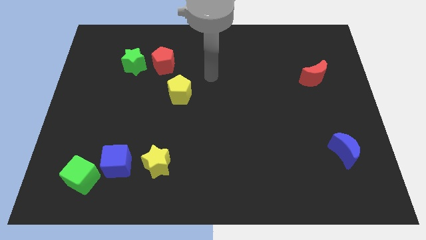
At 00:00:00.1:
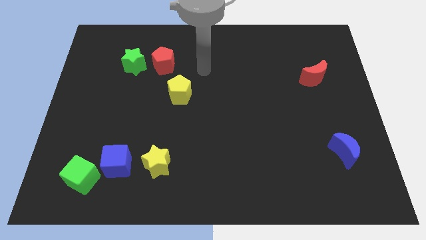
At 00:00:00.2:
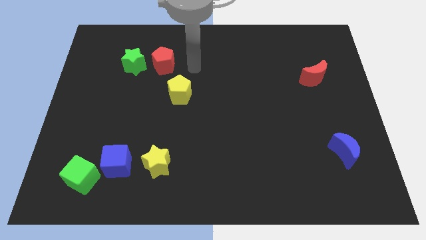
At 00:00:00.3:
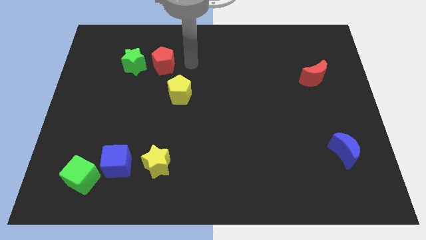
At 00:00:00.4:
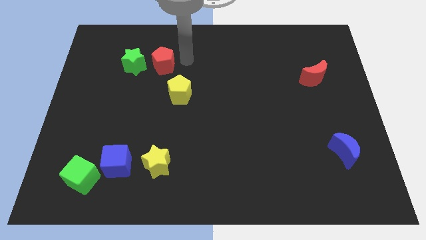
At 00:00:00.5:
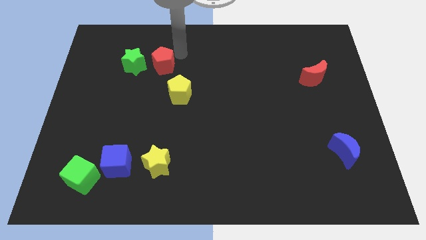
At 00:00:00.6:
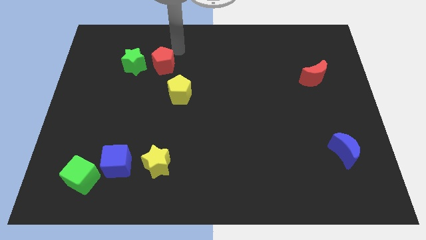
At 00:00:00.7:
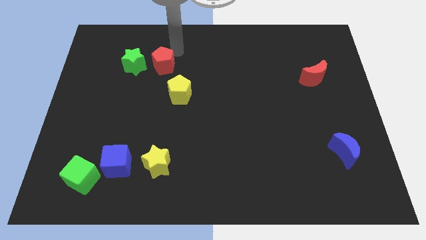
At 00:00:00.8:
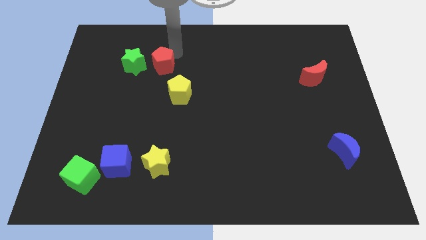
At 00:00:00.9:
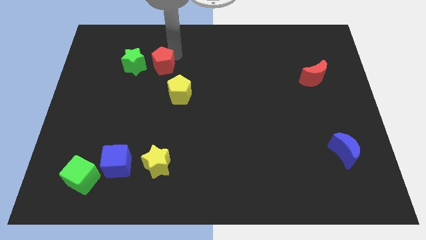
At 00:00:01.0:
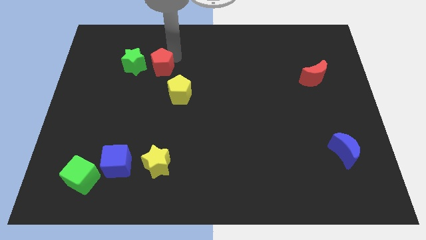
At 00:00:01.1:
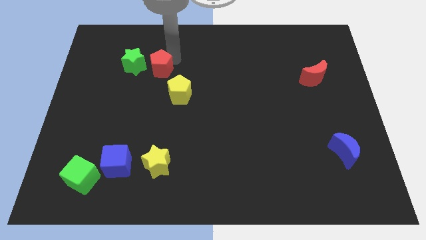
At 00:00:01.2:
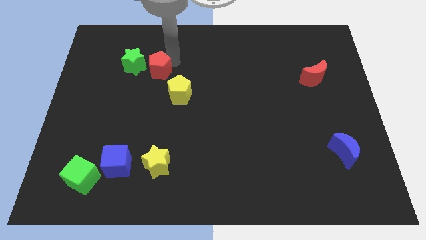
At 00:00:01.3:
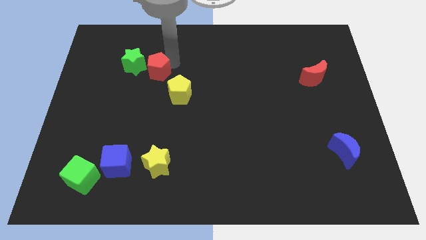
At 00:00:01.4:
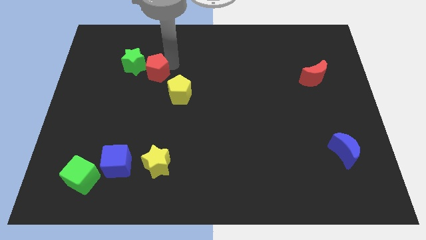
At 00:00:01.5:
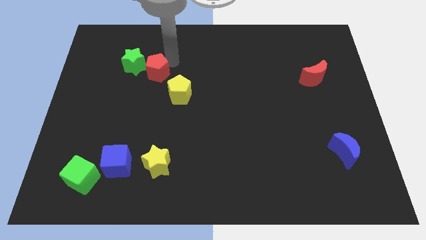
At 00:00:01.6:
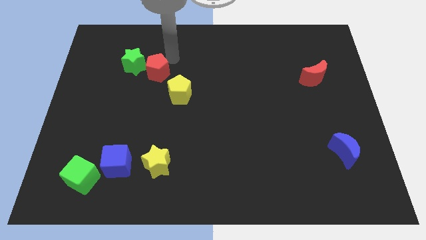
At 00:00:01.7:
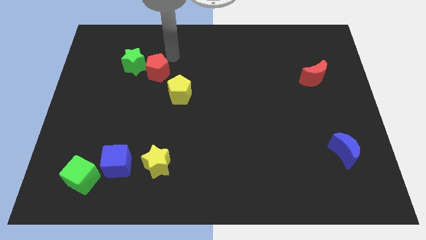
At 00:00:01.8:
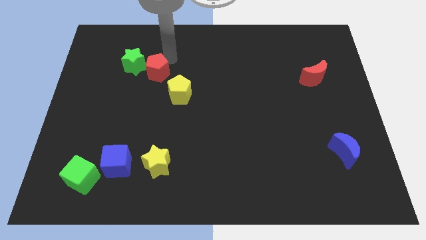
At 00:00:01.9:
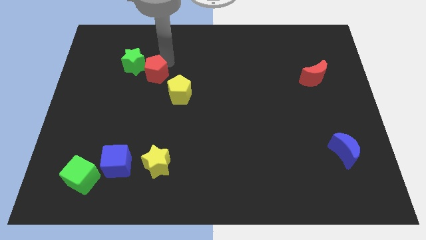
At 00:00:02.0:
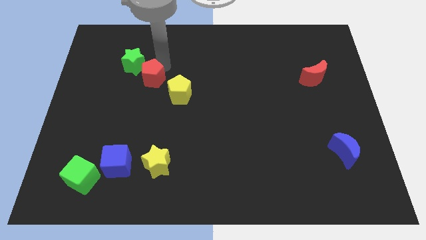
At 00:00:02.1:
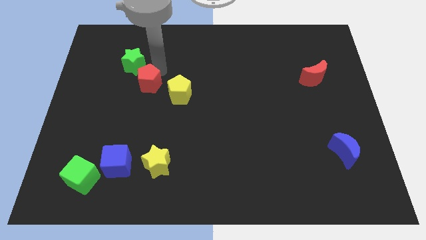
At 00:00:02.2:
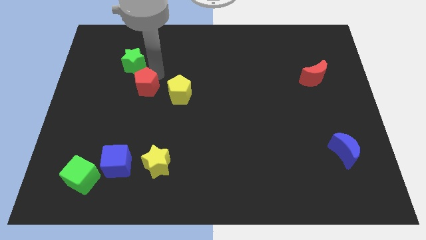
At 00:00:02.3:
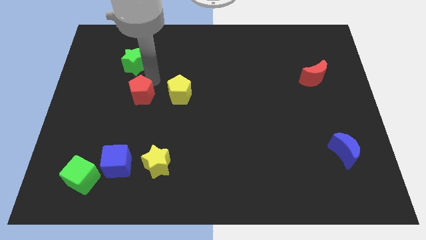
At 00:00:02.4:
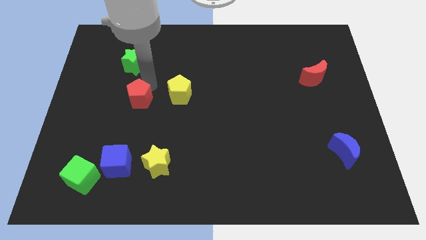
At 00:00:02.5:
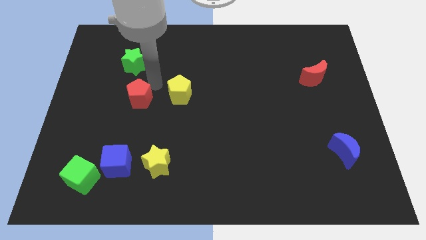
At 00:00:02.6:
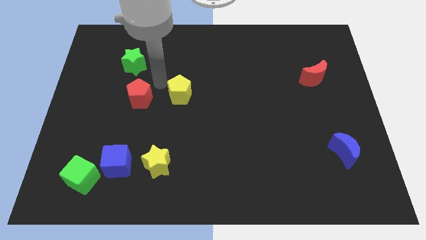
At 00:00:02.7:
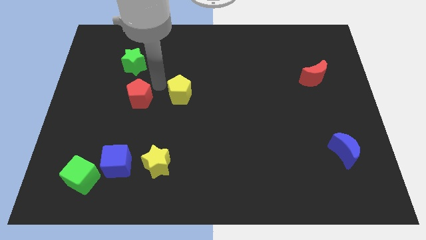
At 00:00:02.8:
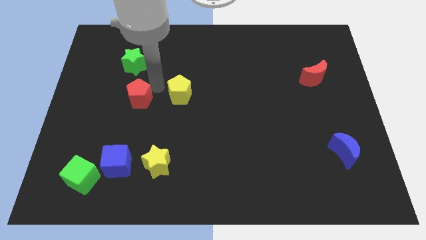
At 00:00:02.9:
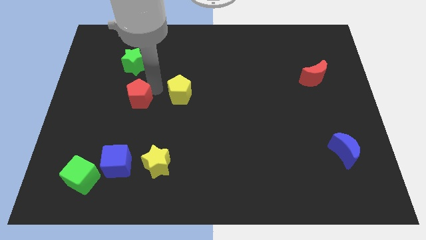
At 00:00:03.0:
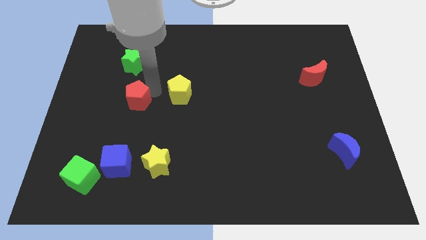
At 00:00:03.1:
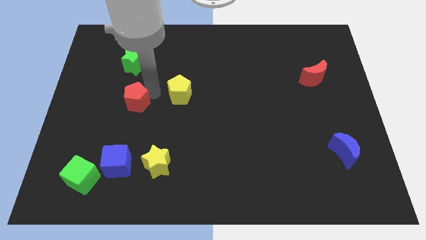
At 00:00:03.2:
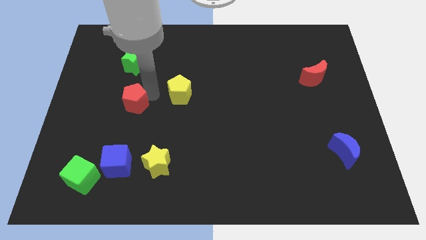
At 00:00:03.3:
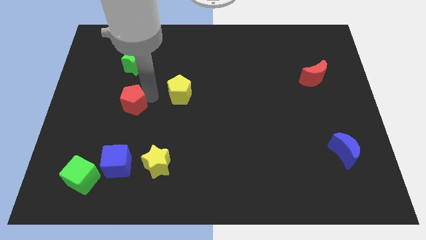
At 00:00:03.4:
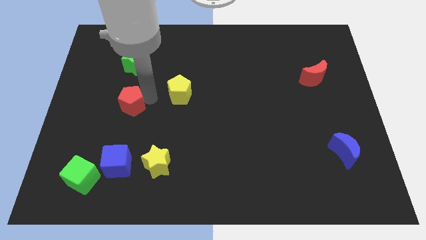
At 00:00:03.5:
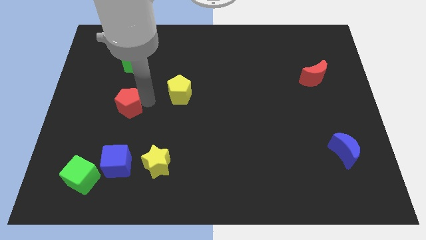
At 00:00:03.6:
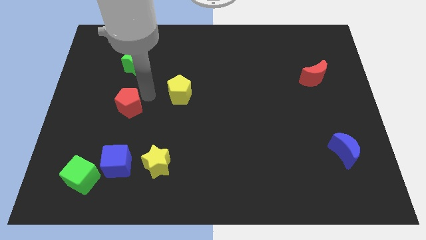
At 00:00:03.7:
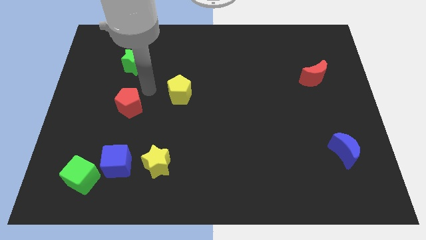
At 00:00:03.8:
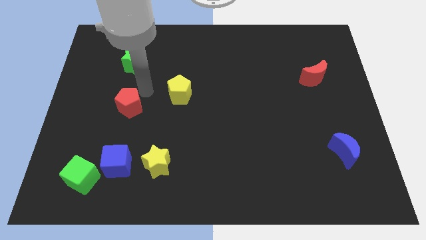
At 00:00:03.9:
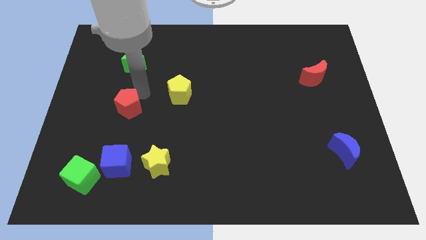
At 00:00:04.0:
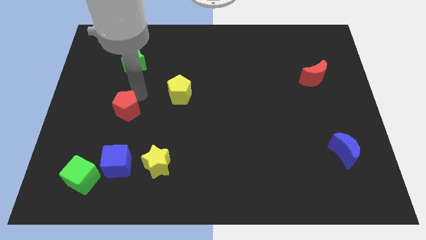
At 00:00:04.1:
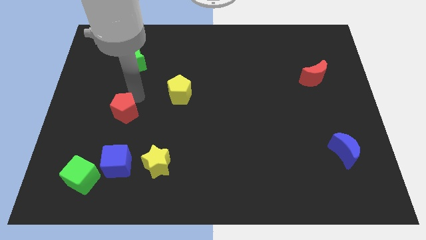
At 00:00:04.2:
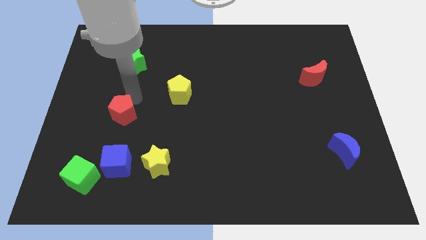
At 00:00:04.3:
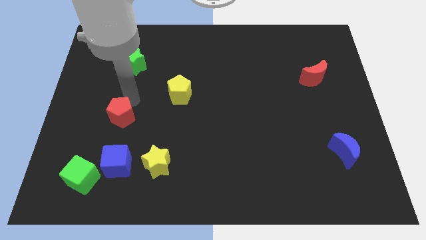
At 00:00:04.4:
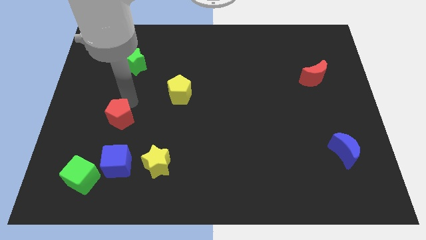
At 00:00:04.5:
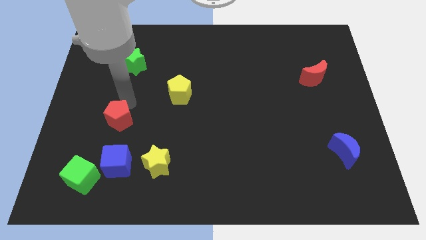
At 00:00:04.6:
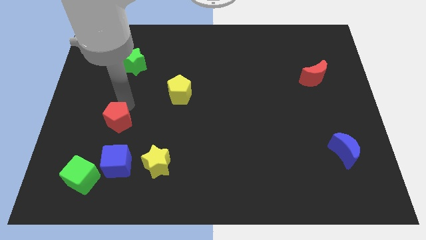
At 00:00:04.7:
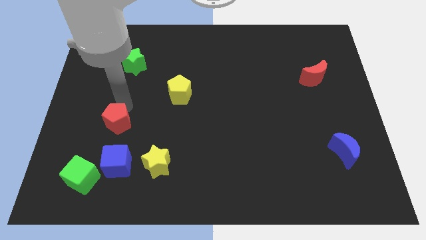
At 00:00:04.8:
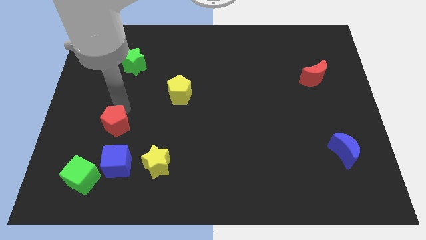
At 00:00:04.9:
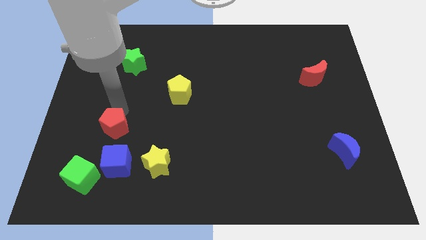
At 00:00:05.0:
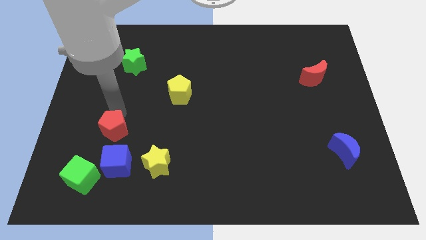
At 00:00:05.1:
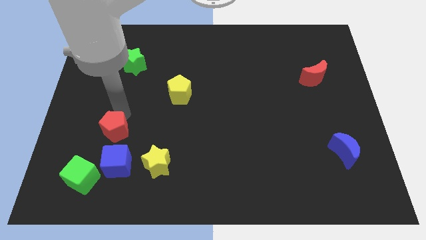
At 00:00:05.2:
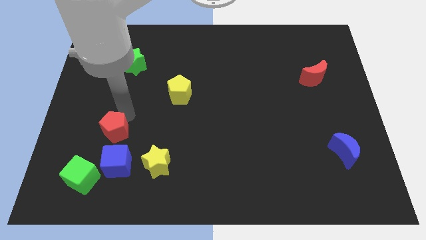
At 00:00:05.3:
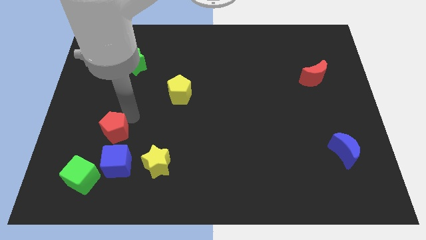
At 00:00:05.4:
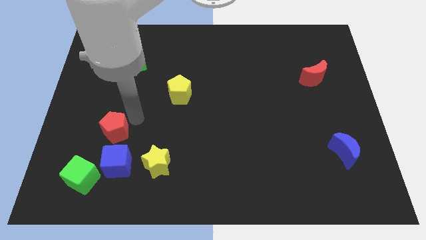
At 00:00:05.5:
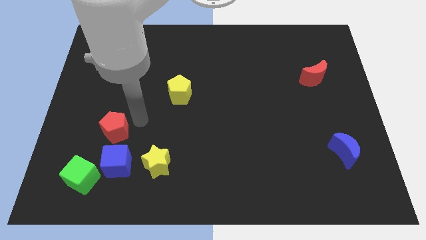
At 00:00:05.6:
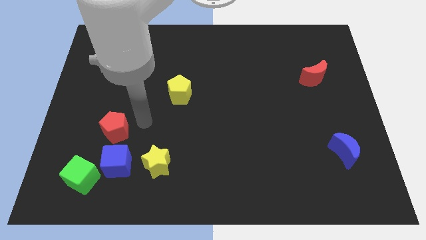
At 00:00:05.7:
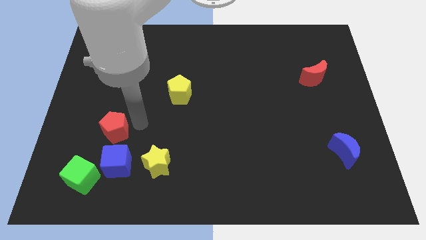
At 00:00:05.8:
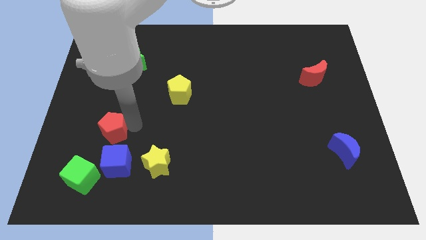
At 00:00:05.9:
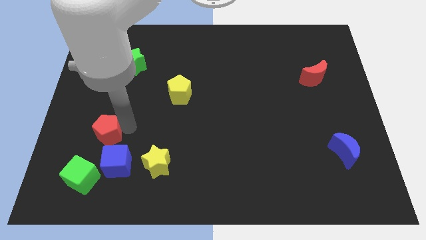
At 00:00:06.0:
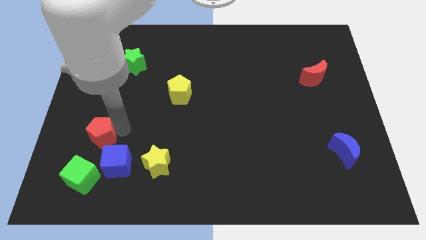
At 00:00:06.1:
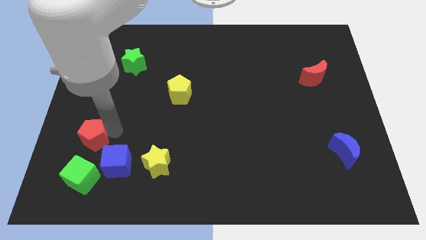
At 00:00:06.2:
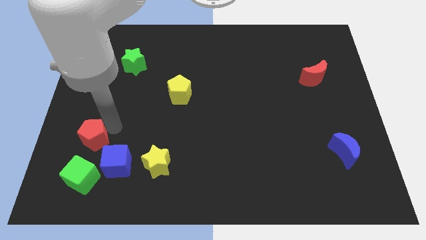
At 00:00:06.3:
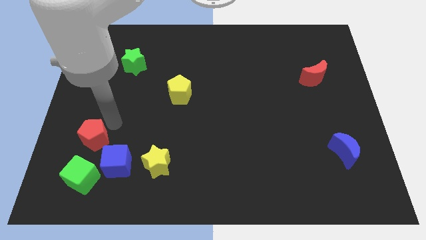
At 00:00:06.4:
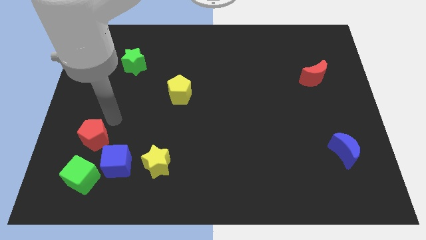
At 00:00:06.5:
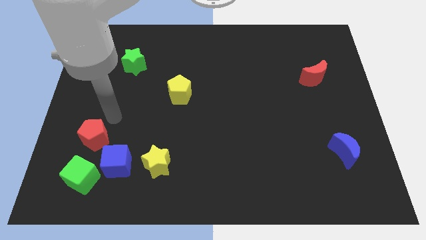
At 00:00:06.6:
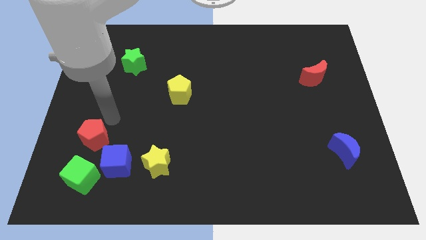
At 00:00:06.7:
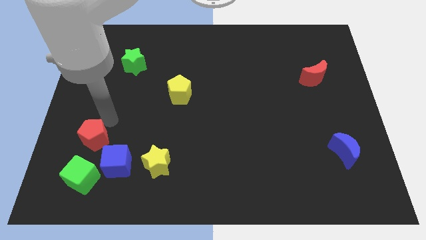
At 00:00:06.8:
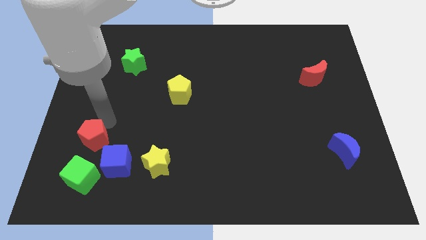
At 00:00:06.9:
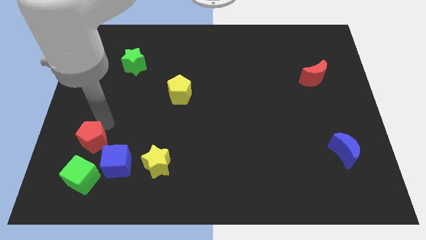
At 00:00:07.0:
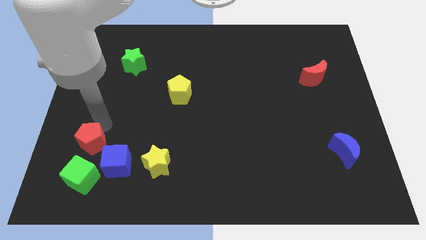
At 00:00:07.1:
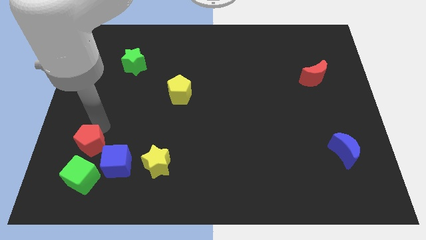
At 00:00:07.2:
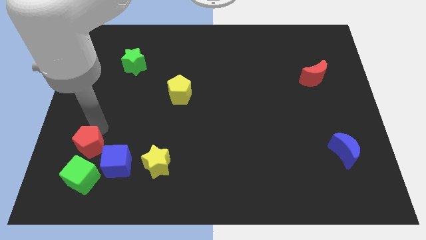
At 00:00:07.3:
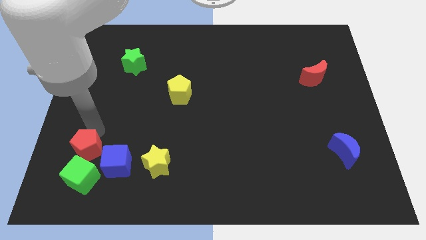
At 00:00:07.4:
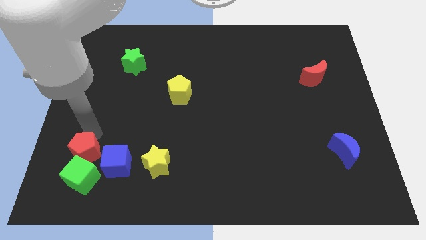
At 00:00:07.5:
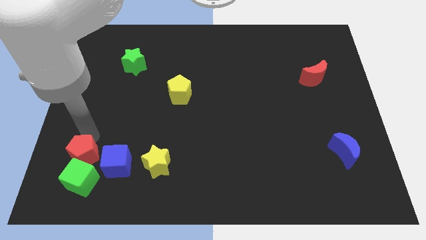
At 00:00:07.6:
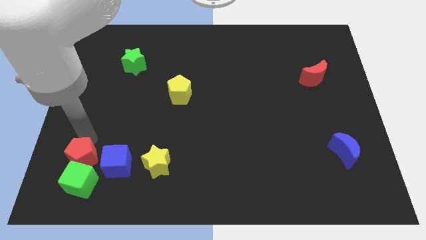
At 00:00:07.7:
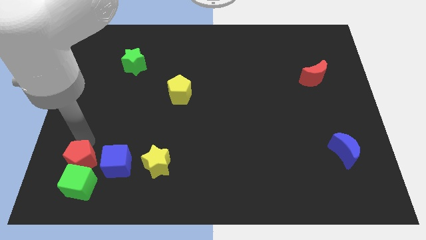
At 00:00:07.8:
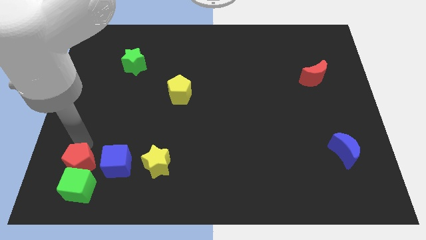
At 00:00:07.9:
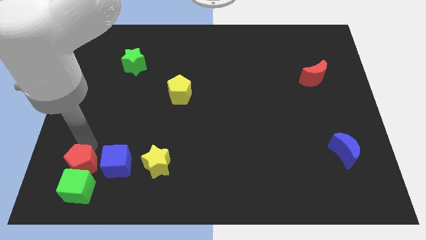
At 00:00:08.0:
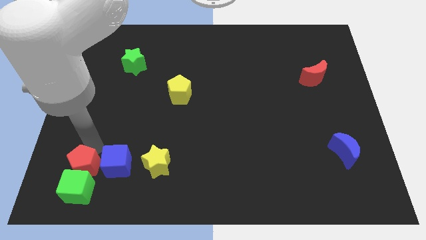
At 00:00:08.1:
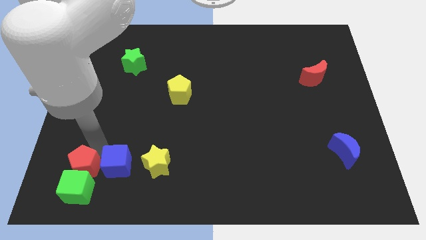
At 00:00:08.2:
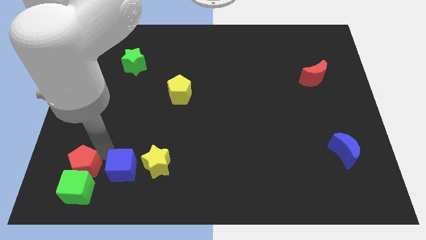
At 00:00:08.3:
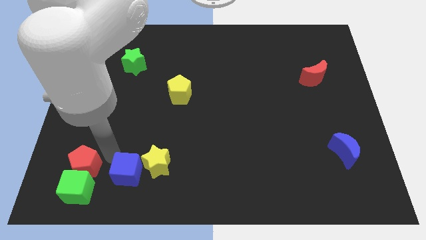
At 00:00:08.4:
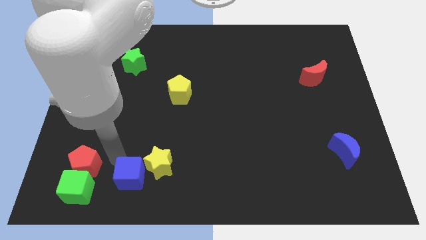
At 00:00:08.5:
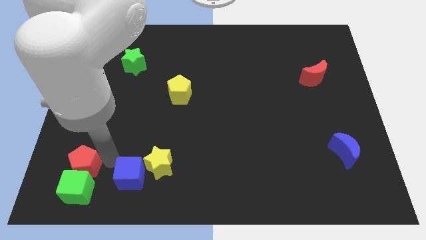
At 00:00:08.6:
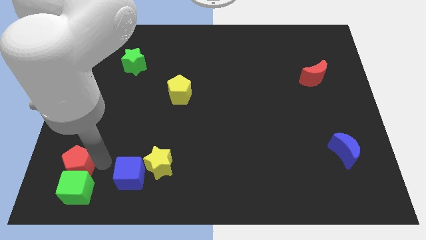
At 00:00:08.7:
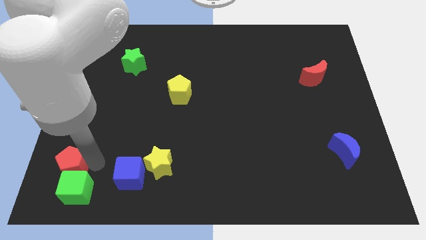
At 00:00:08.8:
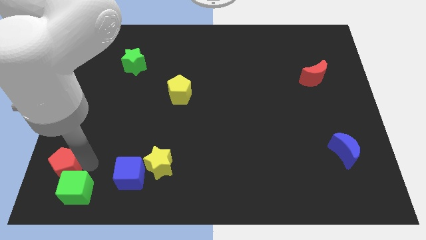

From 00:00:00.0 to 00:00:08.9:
put the red pentagon to the bottom left of the board
